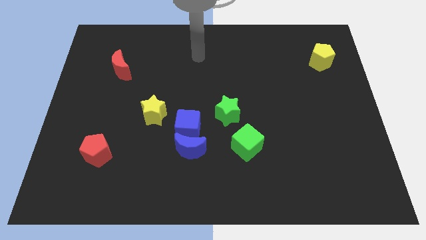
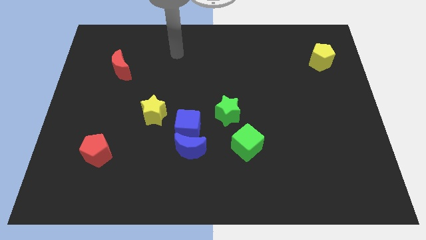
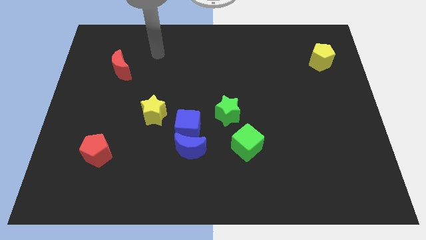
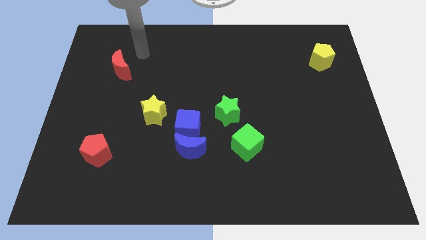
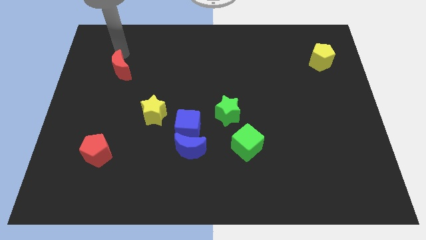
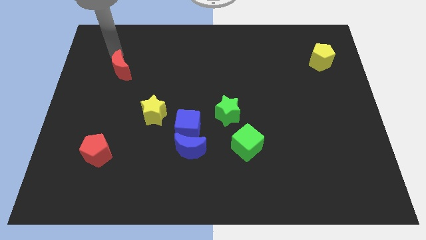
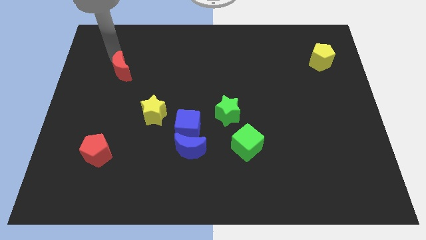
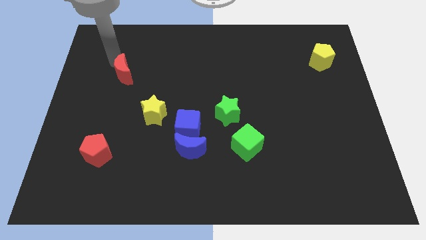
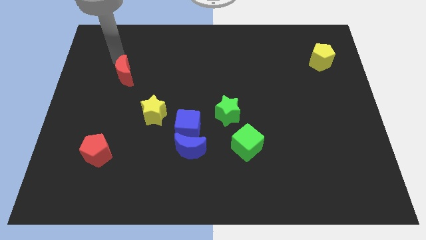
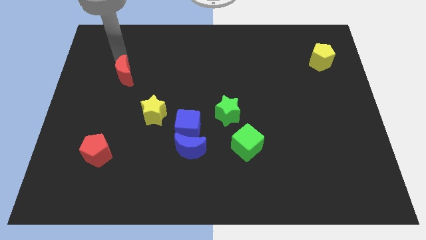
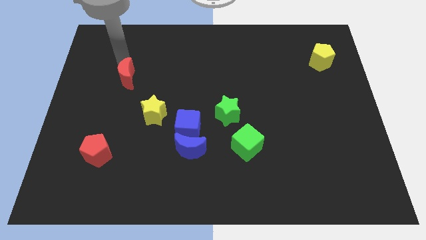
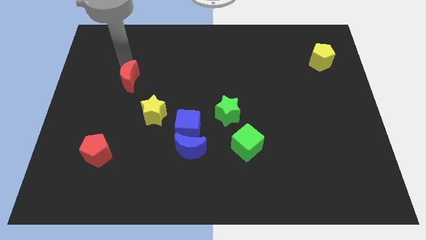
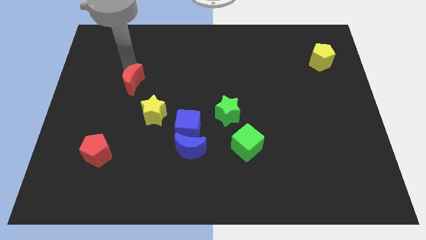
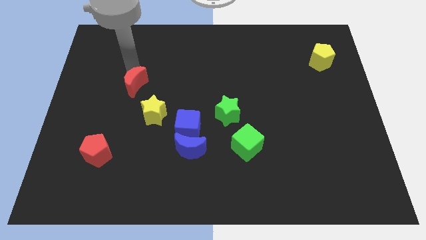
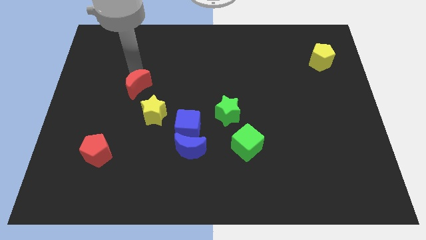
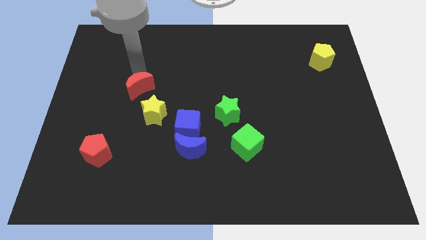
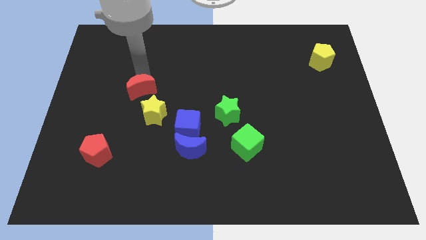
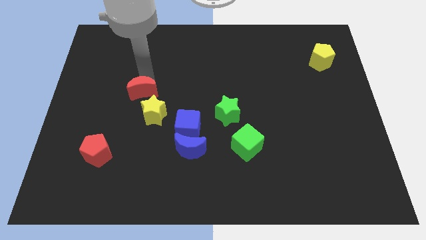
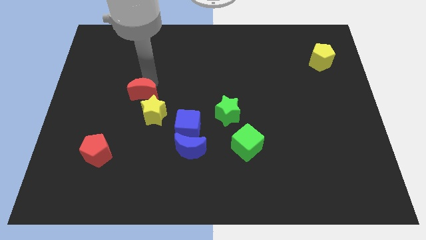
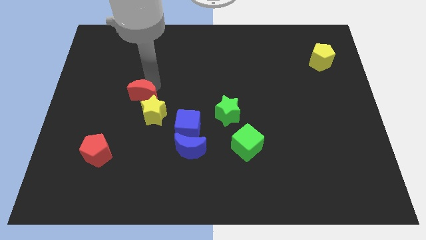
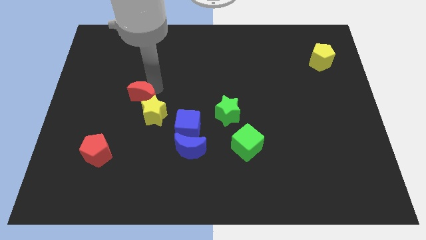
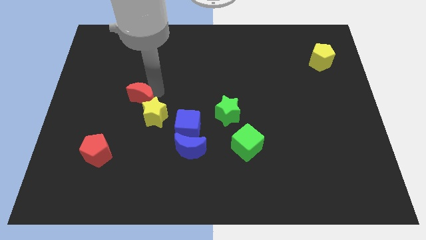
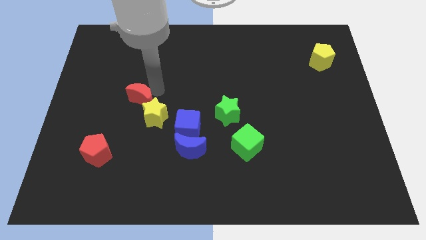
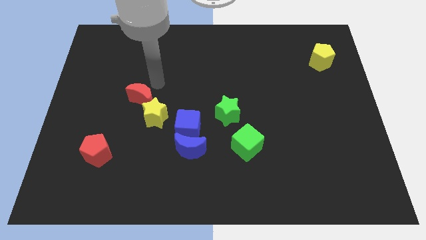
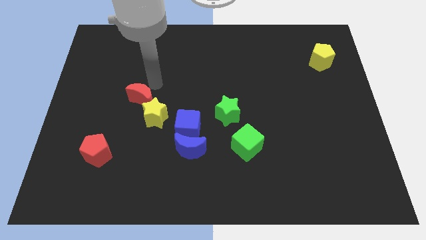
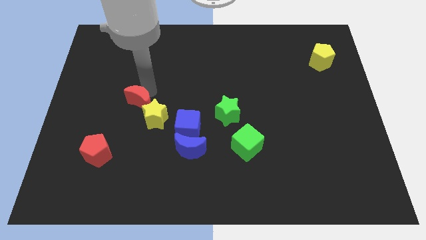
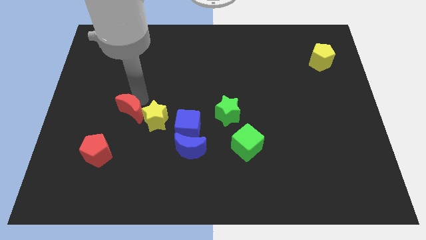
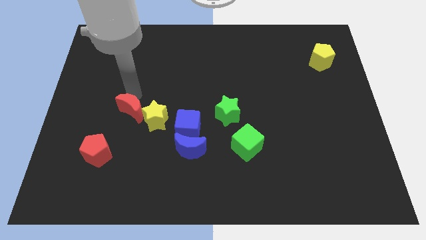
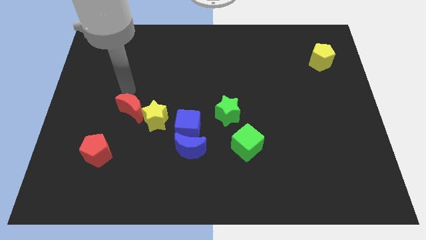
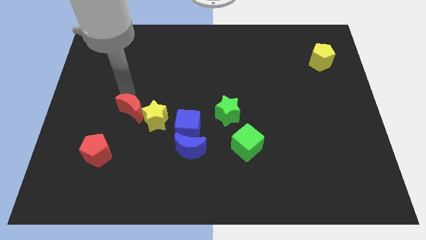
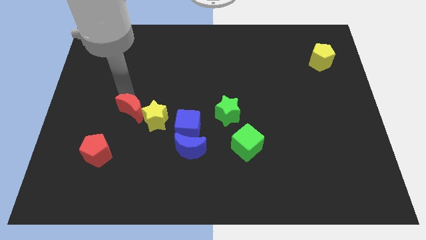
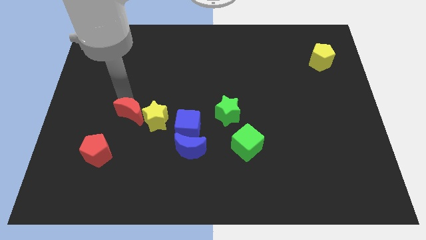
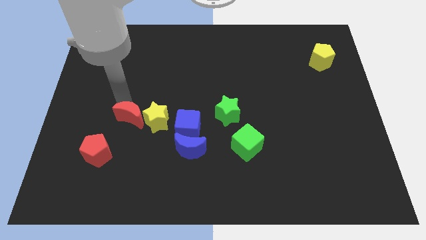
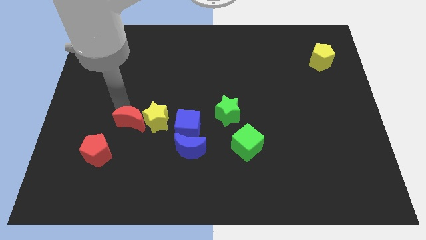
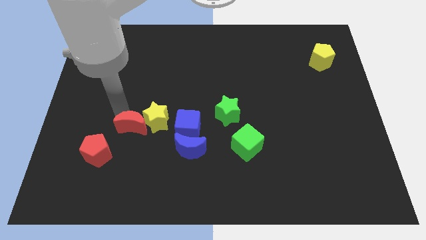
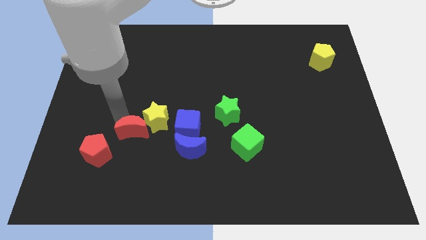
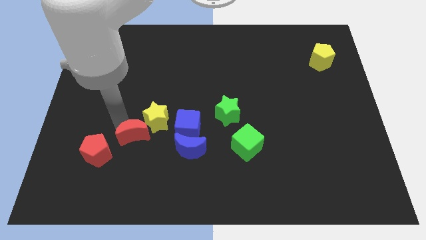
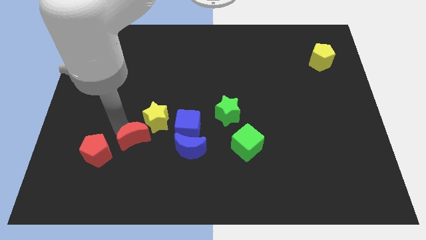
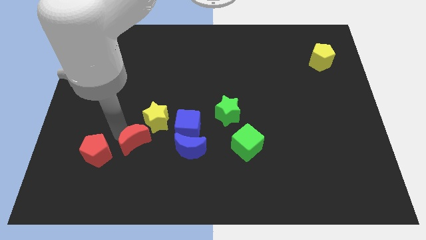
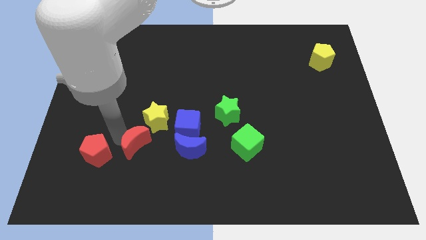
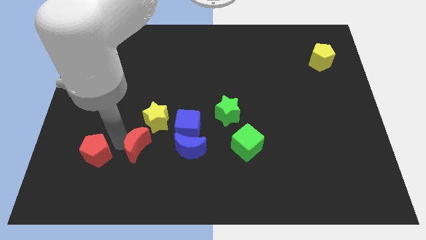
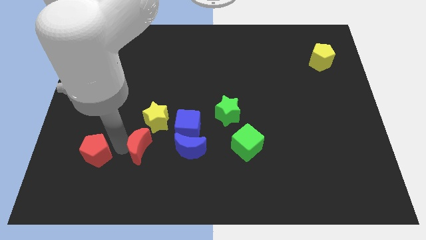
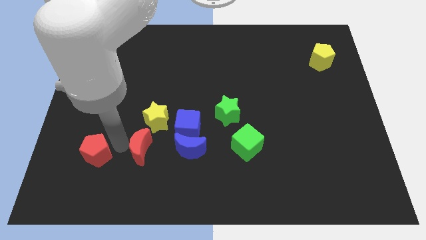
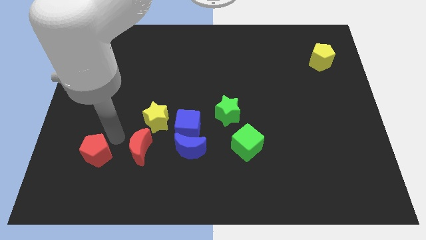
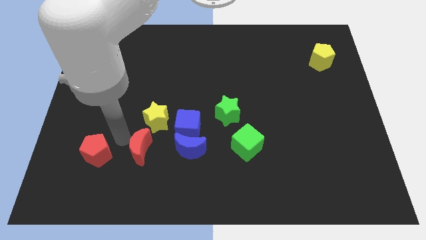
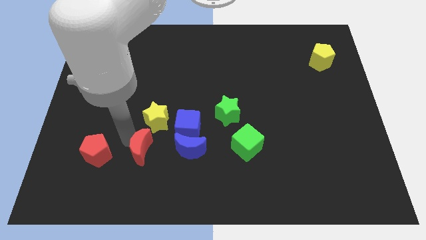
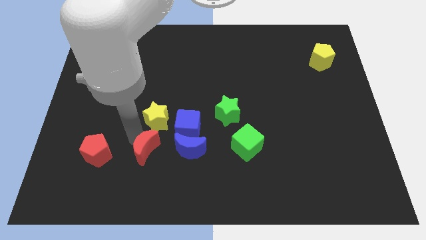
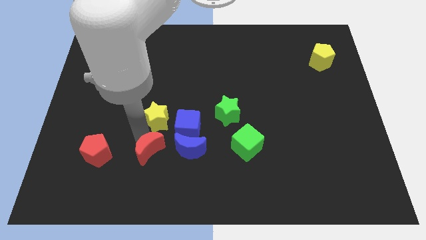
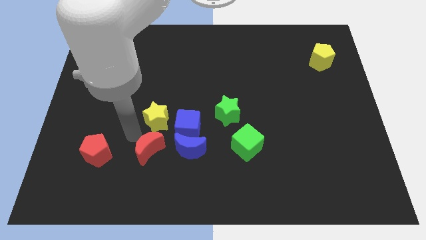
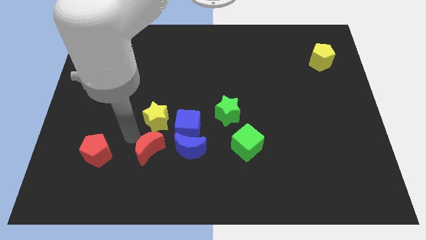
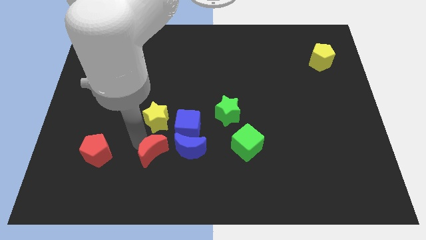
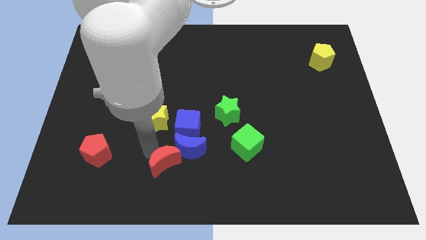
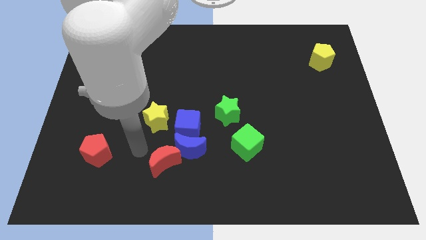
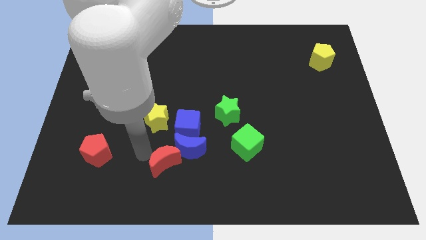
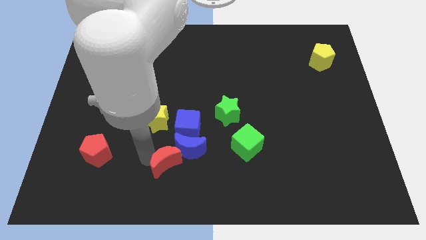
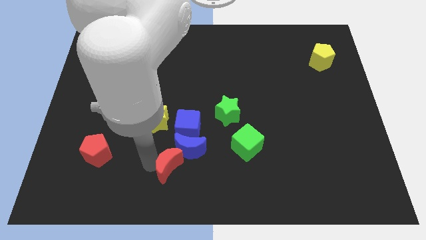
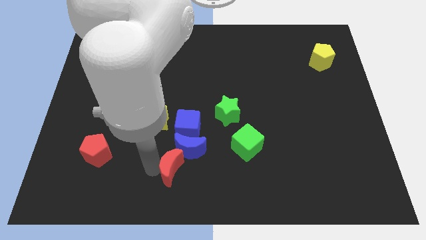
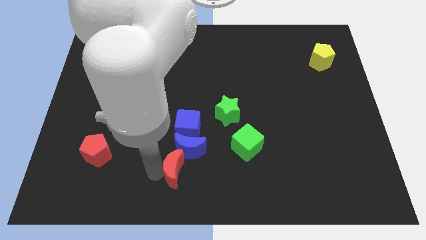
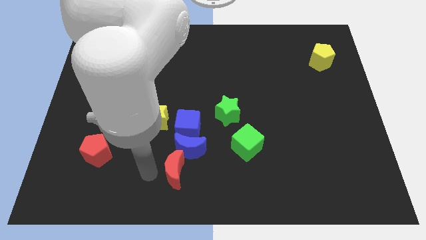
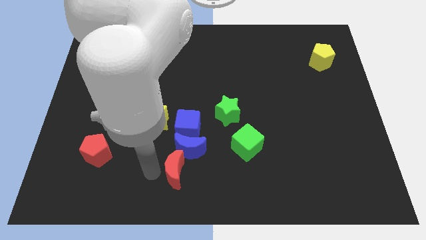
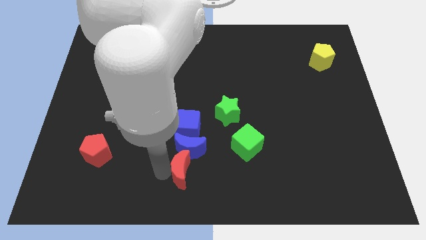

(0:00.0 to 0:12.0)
put the red moon to the bottom right of the blue moon
